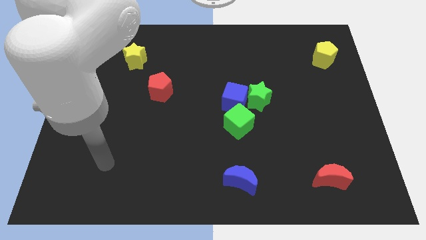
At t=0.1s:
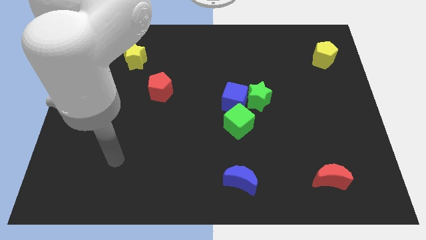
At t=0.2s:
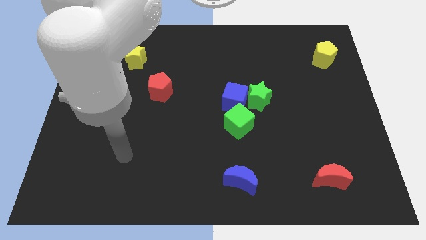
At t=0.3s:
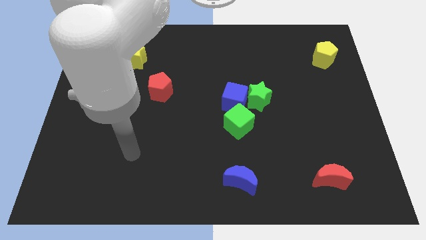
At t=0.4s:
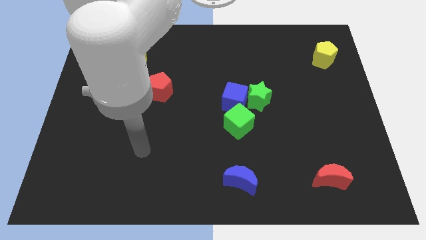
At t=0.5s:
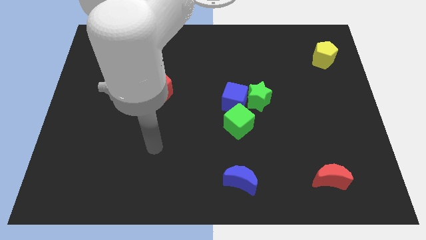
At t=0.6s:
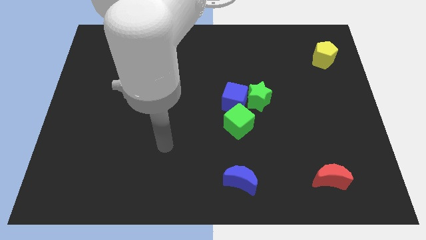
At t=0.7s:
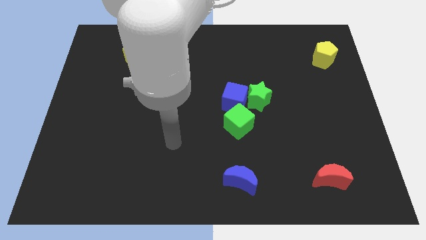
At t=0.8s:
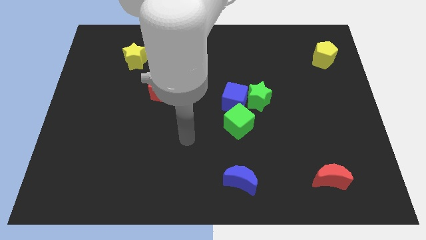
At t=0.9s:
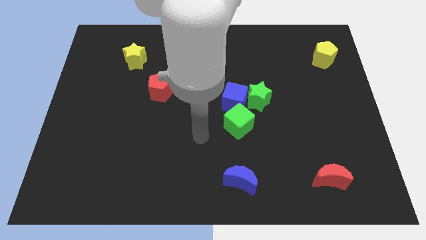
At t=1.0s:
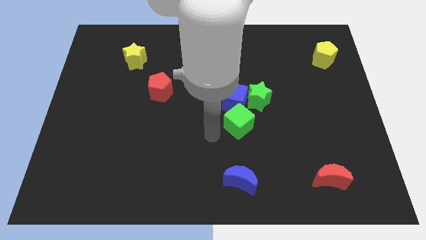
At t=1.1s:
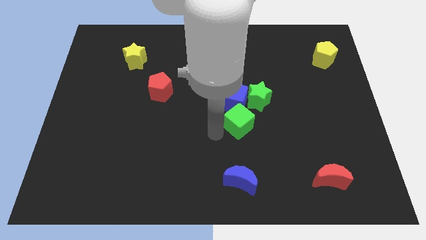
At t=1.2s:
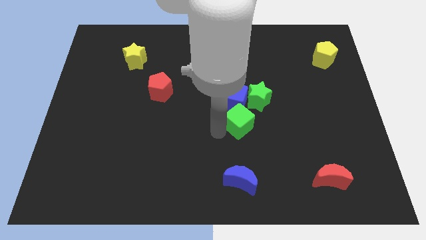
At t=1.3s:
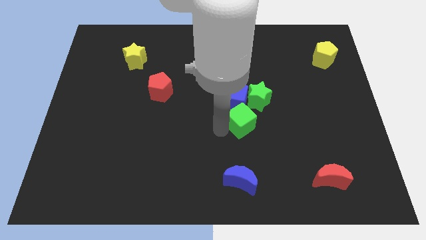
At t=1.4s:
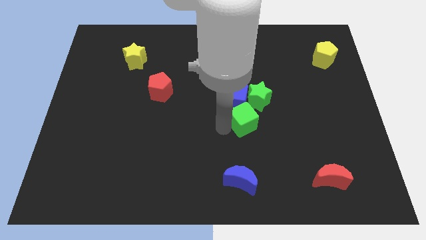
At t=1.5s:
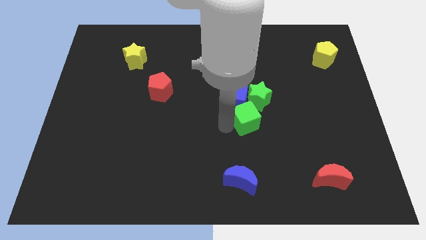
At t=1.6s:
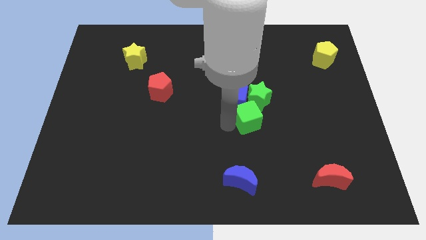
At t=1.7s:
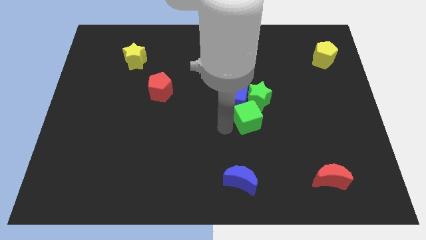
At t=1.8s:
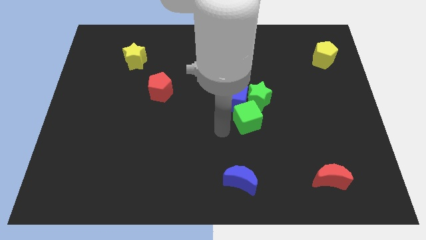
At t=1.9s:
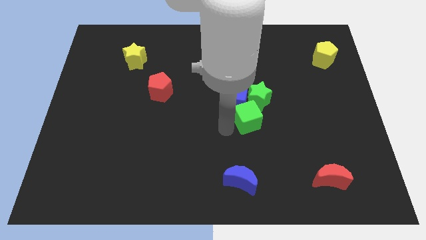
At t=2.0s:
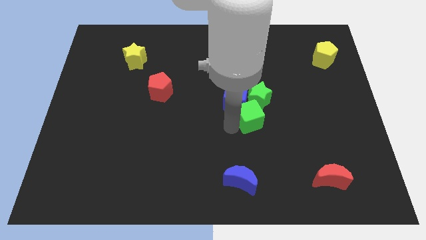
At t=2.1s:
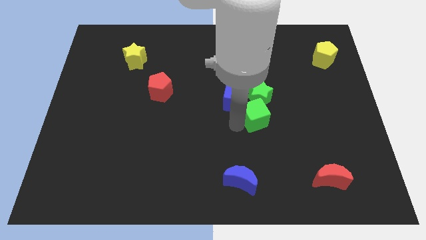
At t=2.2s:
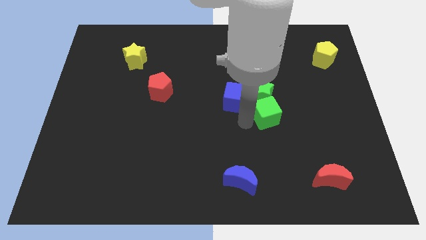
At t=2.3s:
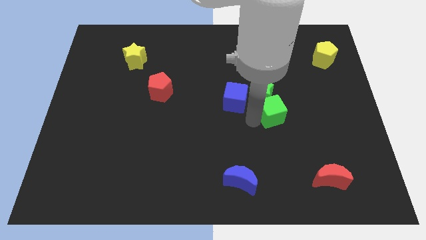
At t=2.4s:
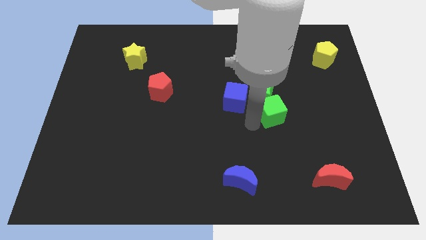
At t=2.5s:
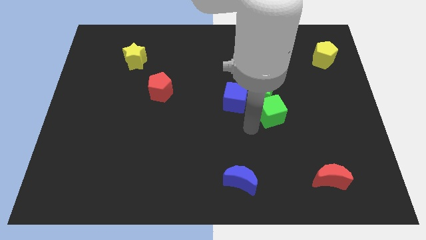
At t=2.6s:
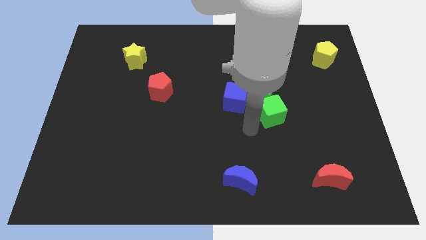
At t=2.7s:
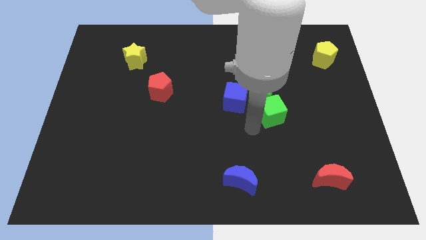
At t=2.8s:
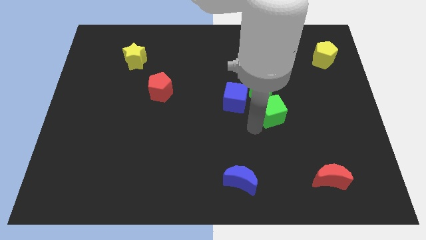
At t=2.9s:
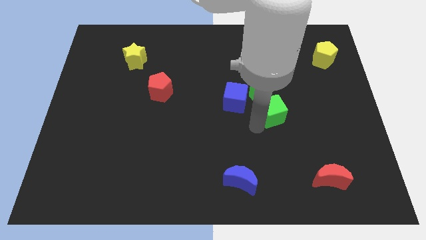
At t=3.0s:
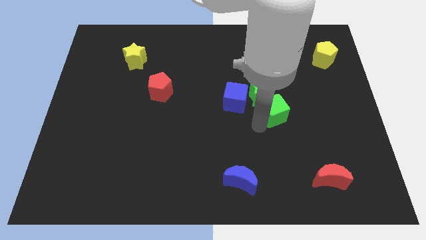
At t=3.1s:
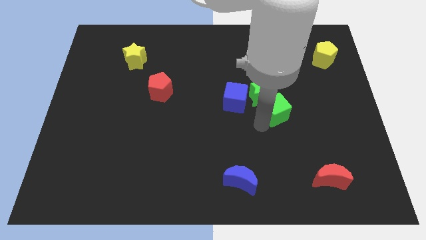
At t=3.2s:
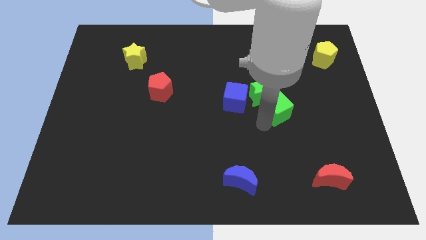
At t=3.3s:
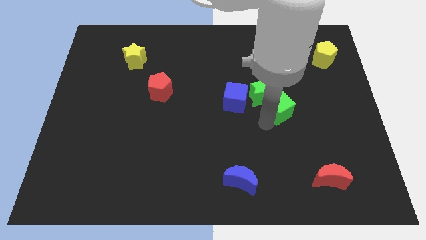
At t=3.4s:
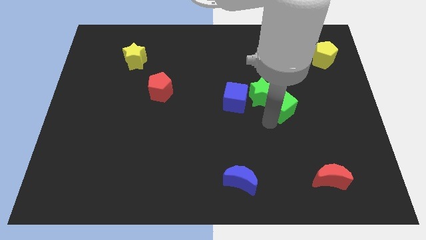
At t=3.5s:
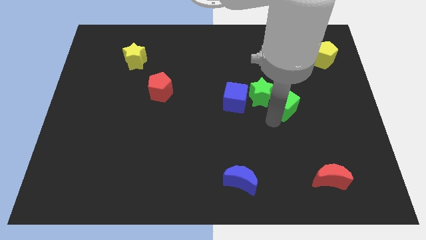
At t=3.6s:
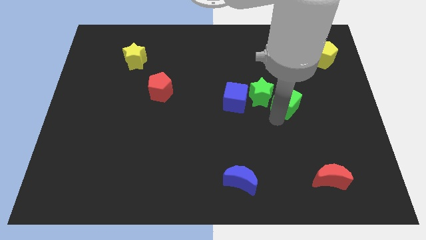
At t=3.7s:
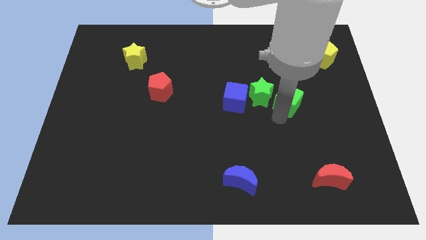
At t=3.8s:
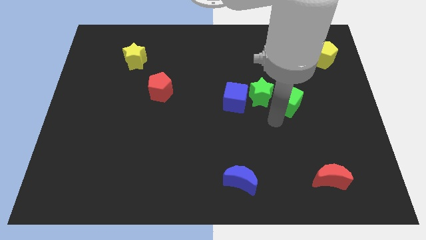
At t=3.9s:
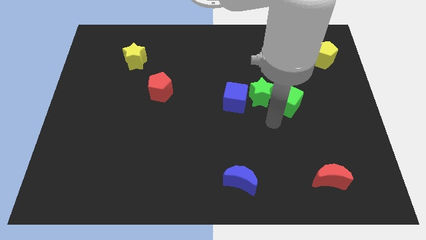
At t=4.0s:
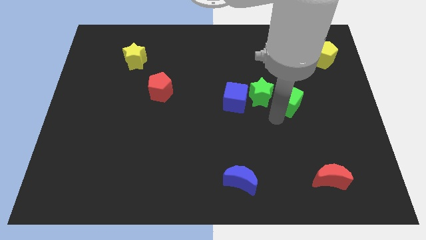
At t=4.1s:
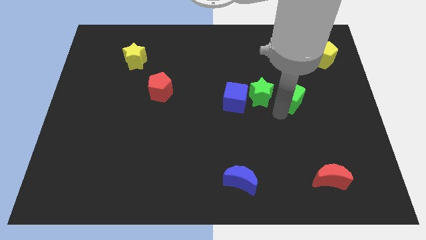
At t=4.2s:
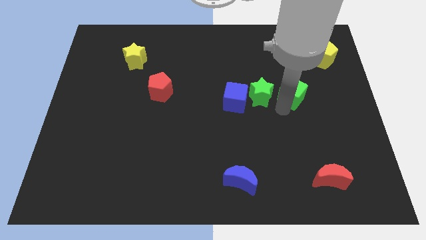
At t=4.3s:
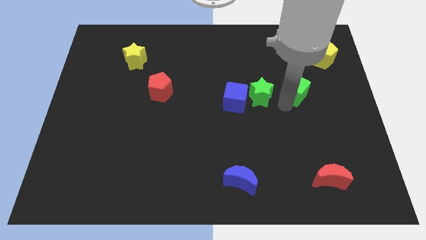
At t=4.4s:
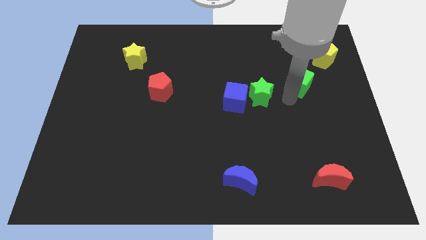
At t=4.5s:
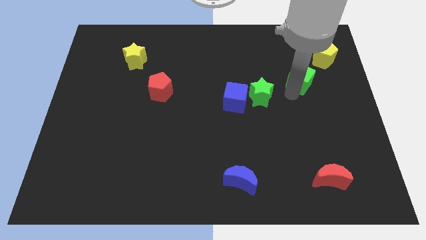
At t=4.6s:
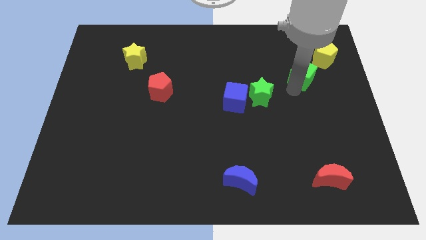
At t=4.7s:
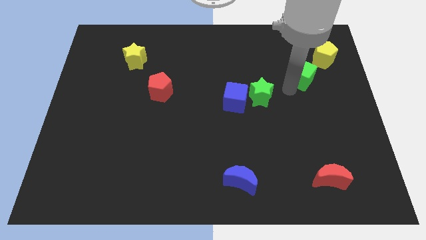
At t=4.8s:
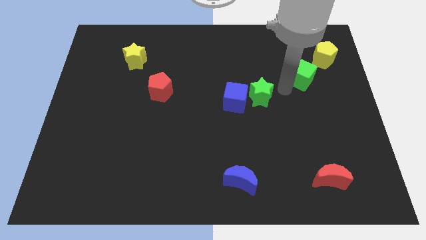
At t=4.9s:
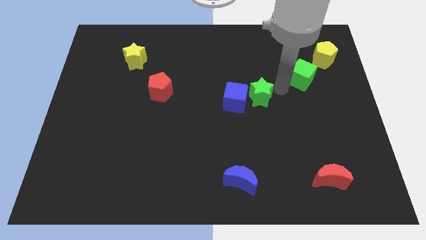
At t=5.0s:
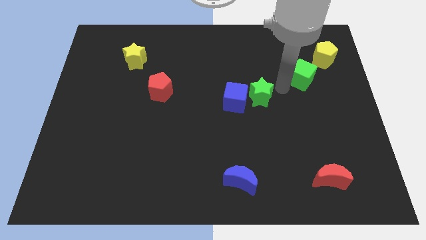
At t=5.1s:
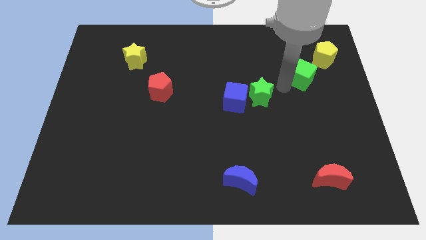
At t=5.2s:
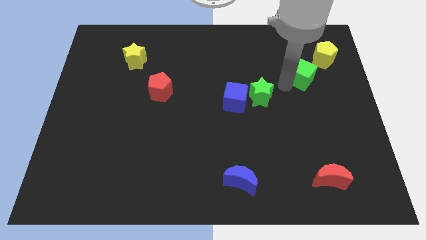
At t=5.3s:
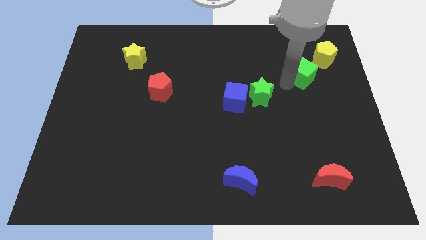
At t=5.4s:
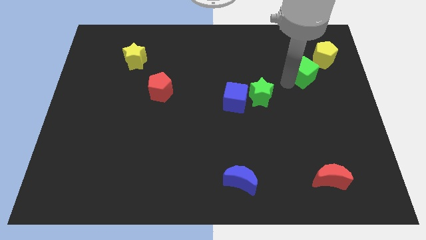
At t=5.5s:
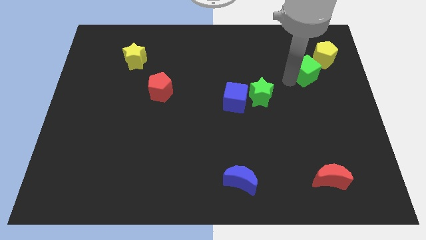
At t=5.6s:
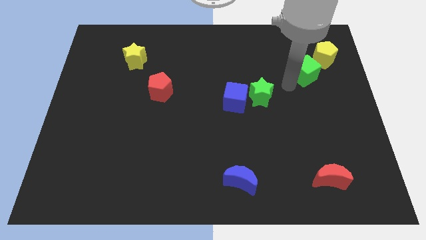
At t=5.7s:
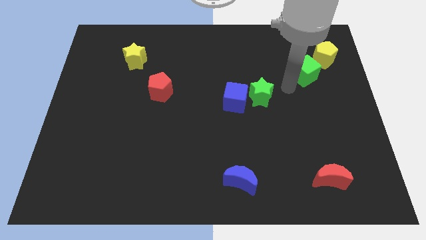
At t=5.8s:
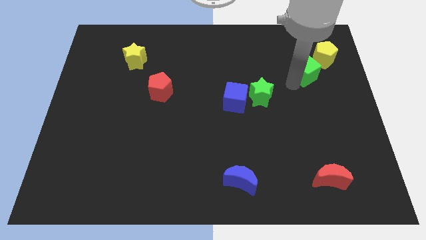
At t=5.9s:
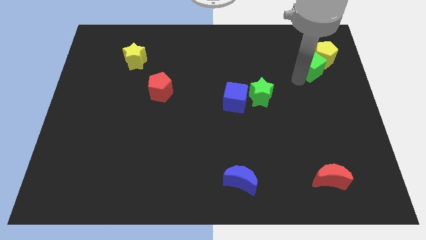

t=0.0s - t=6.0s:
slide the green cube towards the yellow pentagon

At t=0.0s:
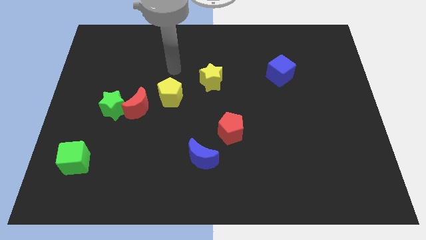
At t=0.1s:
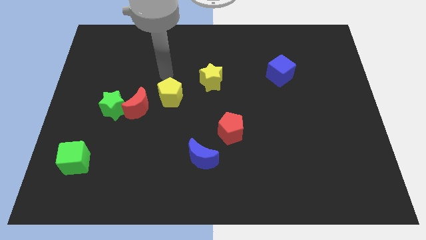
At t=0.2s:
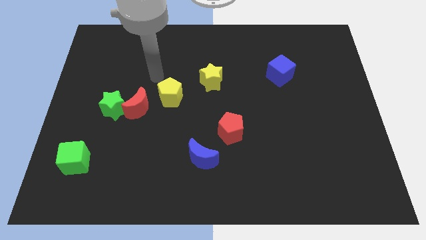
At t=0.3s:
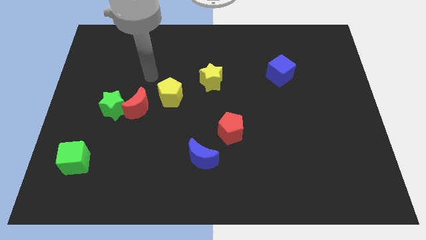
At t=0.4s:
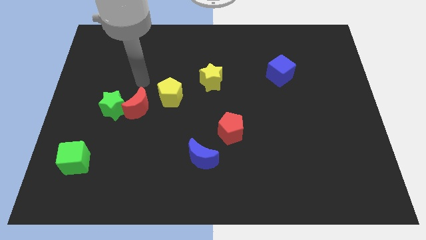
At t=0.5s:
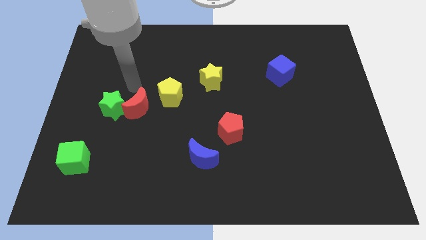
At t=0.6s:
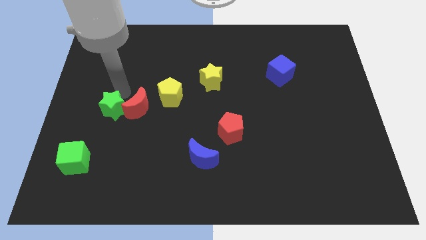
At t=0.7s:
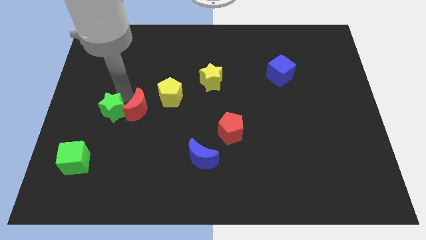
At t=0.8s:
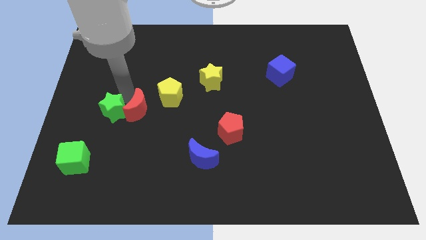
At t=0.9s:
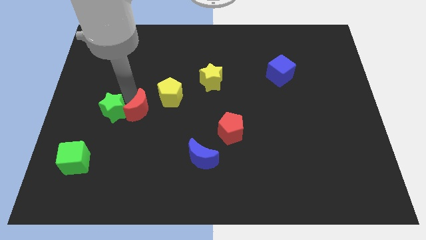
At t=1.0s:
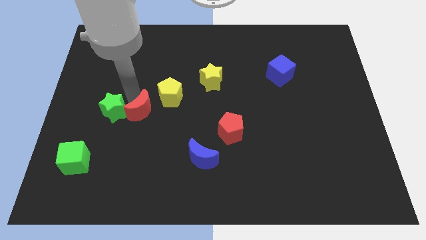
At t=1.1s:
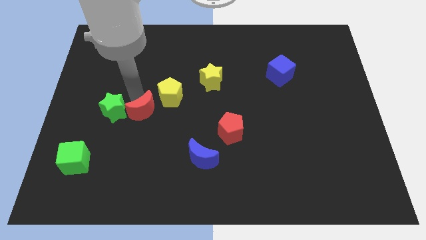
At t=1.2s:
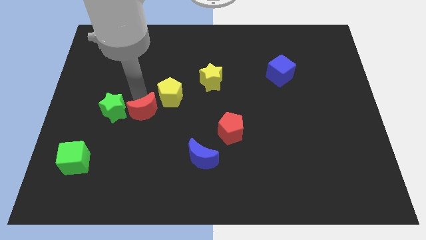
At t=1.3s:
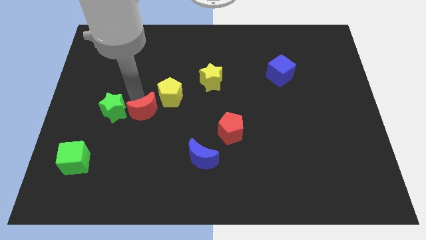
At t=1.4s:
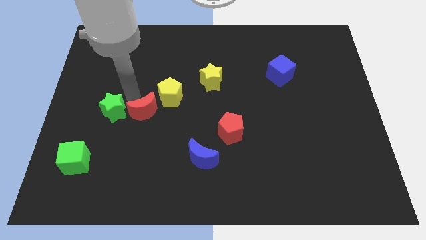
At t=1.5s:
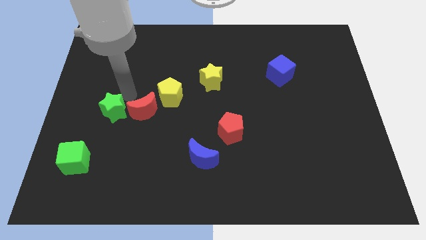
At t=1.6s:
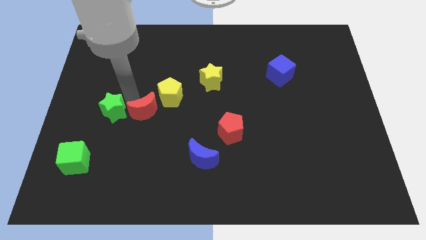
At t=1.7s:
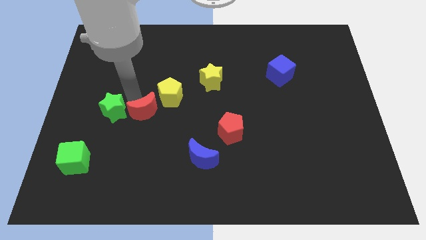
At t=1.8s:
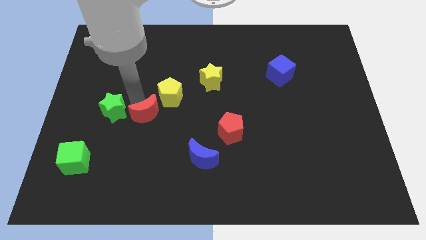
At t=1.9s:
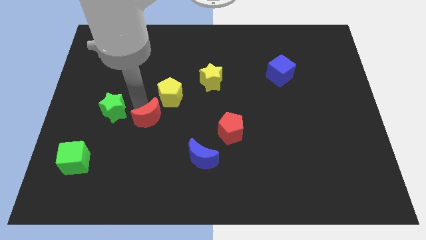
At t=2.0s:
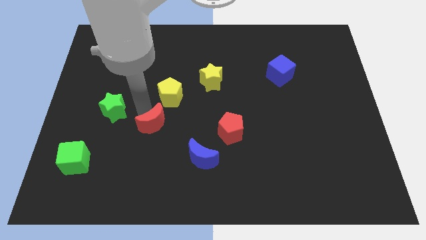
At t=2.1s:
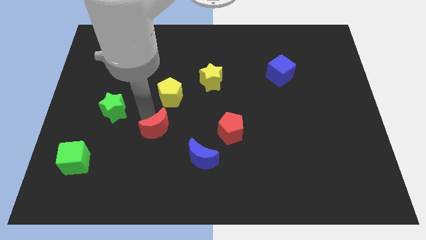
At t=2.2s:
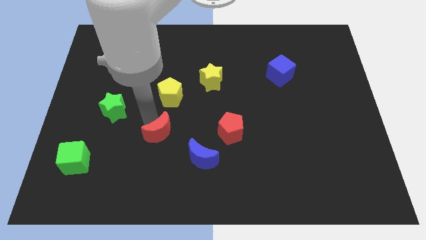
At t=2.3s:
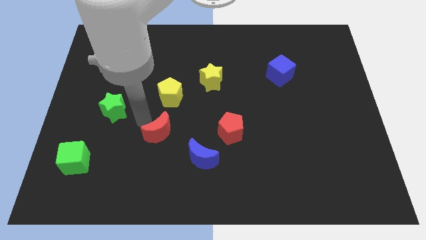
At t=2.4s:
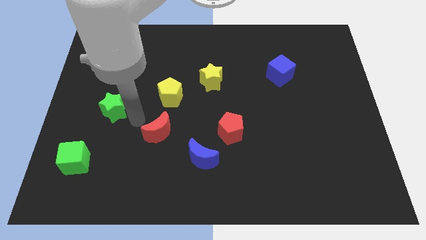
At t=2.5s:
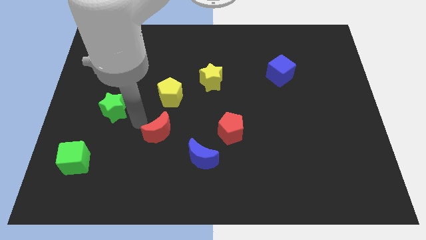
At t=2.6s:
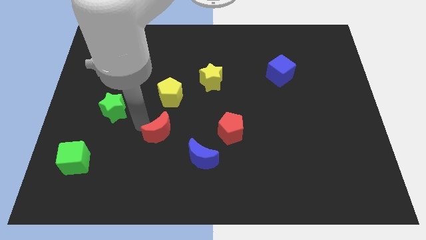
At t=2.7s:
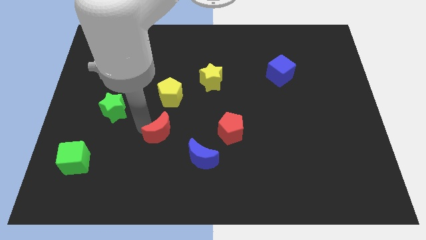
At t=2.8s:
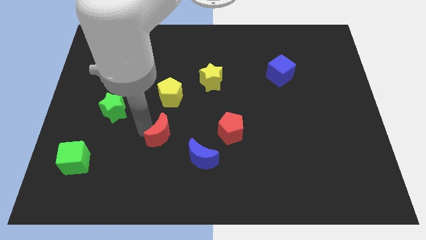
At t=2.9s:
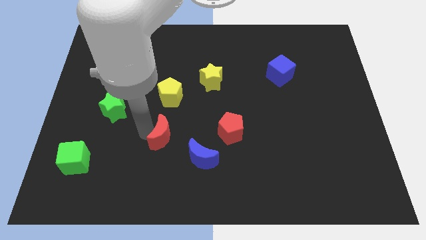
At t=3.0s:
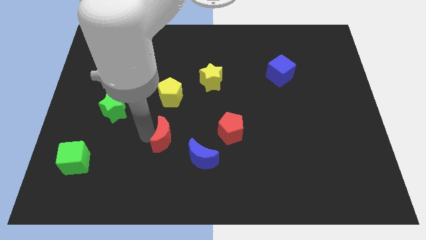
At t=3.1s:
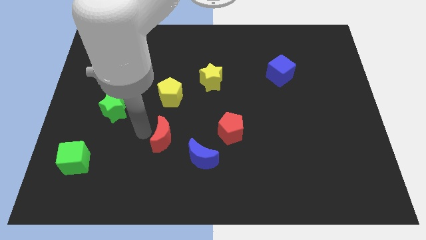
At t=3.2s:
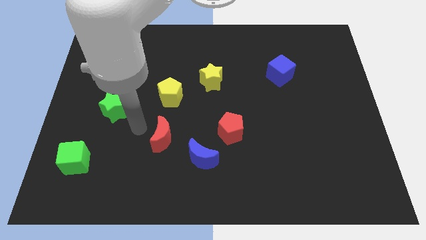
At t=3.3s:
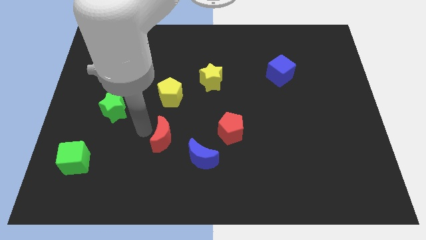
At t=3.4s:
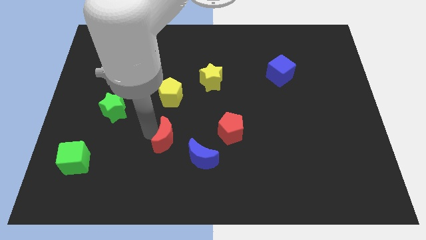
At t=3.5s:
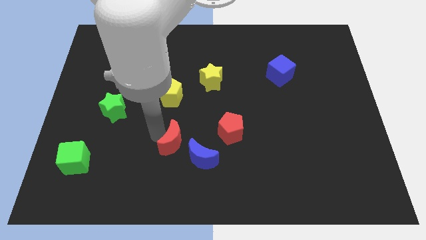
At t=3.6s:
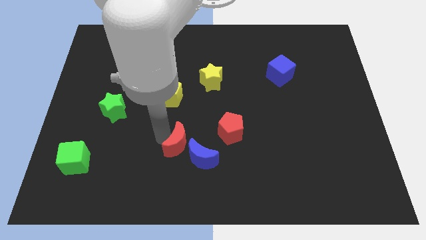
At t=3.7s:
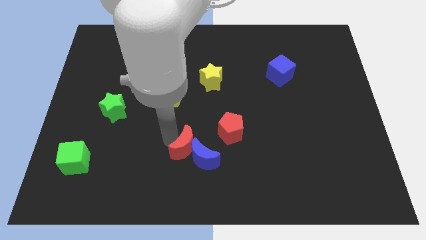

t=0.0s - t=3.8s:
move the red moon to the blue moon
